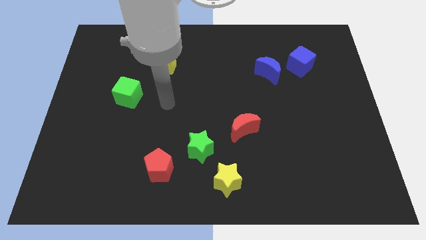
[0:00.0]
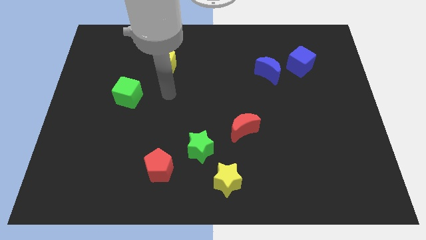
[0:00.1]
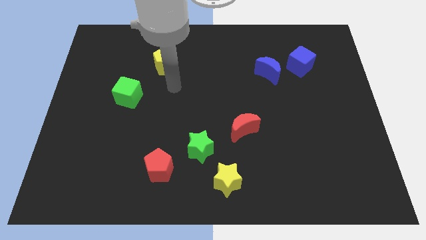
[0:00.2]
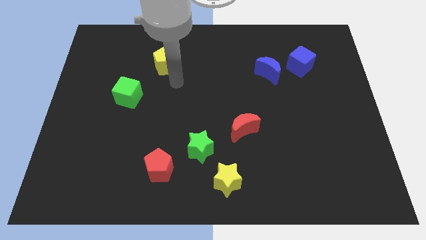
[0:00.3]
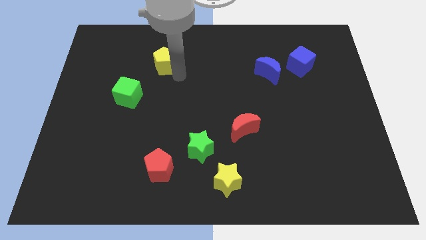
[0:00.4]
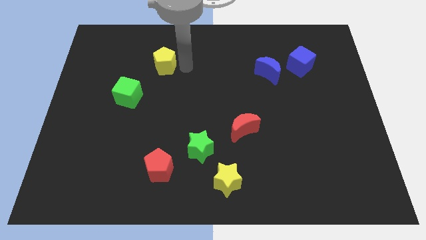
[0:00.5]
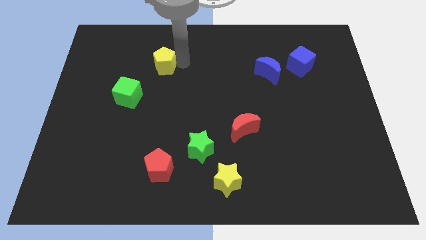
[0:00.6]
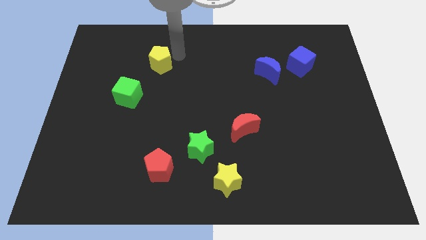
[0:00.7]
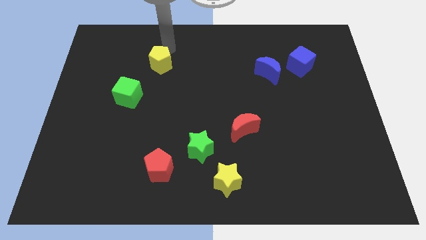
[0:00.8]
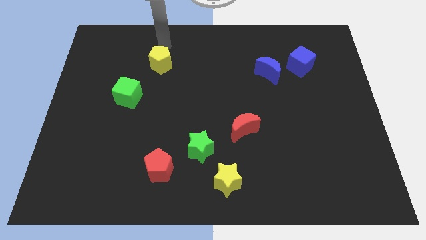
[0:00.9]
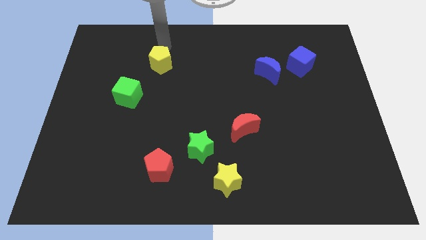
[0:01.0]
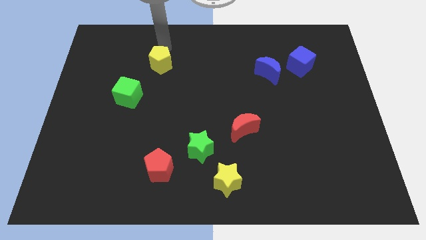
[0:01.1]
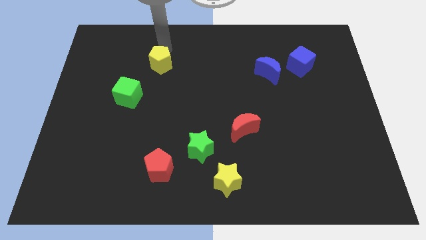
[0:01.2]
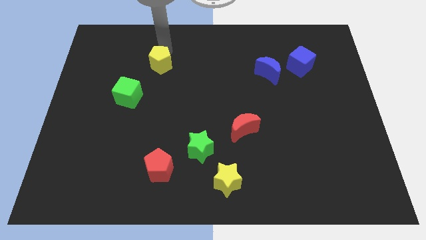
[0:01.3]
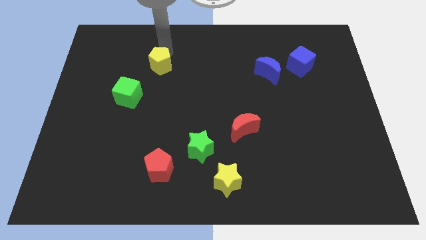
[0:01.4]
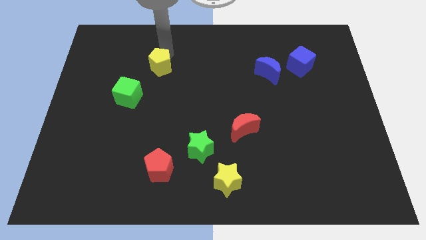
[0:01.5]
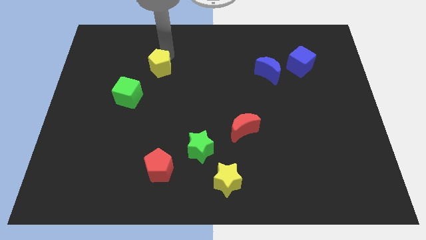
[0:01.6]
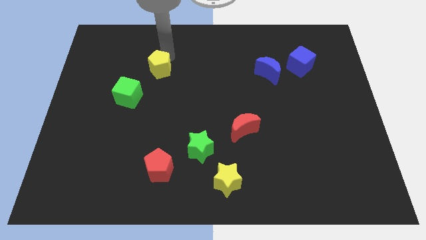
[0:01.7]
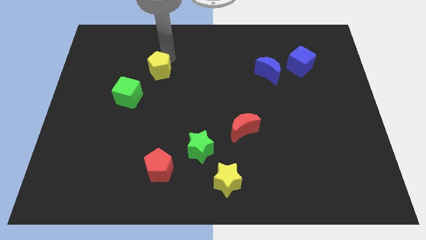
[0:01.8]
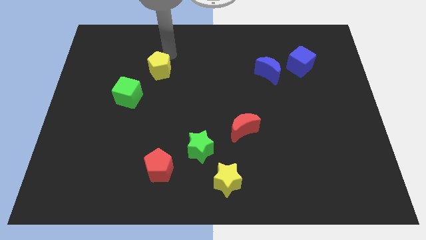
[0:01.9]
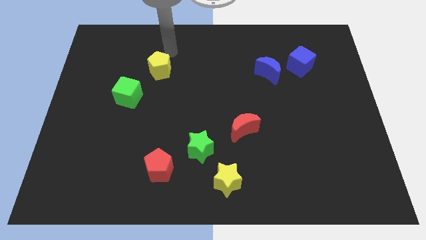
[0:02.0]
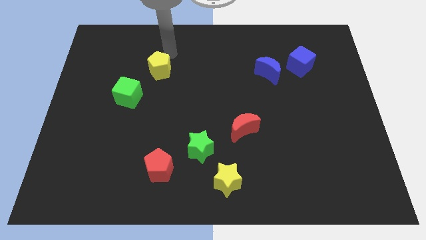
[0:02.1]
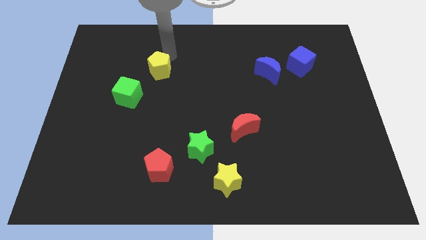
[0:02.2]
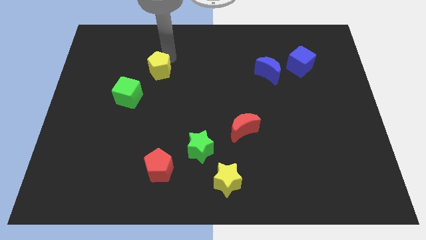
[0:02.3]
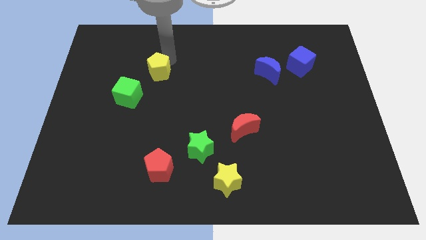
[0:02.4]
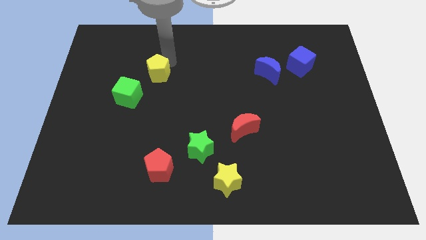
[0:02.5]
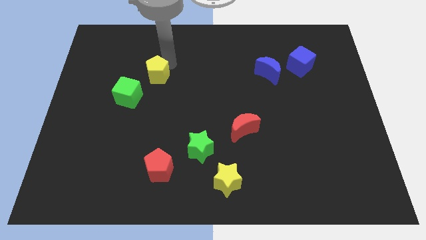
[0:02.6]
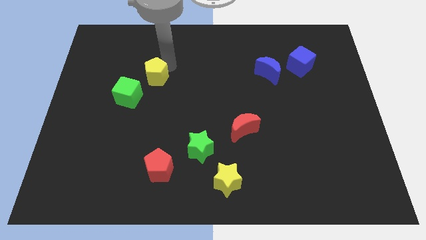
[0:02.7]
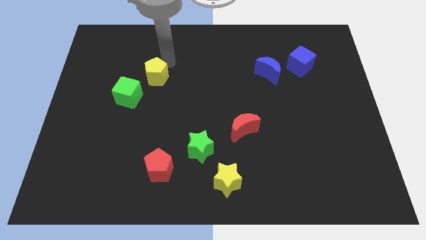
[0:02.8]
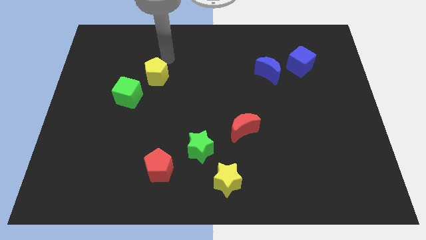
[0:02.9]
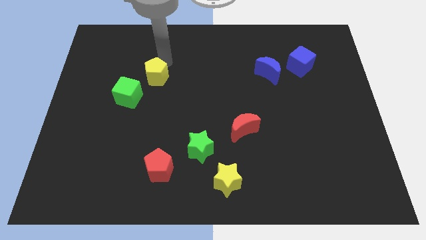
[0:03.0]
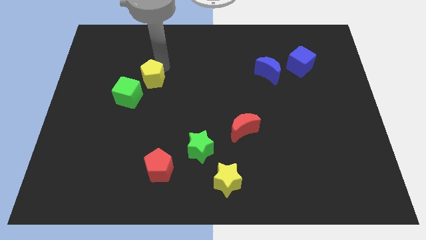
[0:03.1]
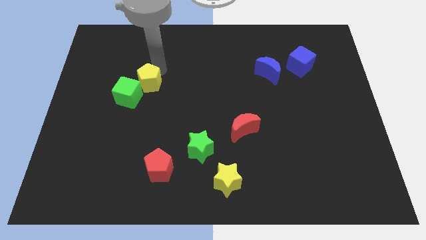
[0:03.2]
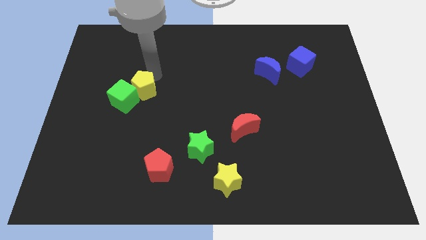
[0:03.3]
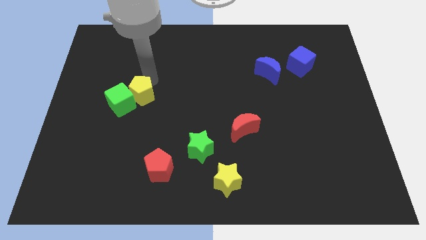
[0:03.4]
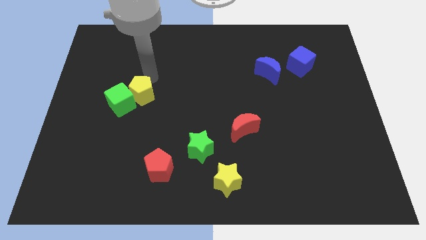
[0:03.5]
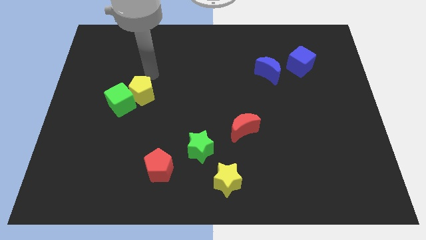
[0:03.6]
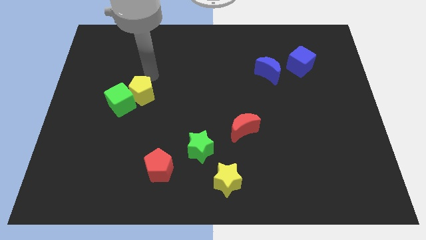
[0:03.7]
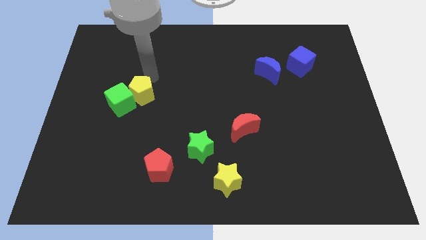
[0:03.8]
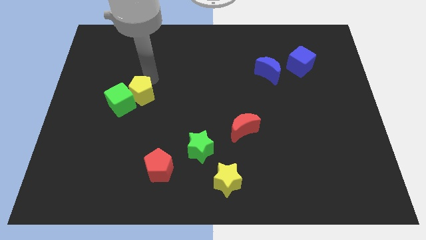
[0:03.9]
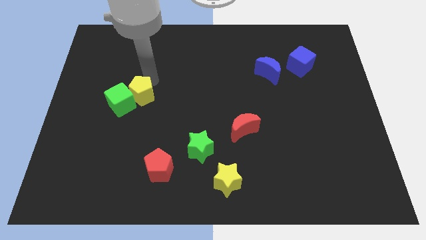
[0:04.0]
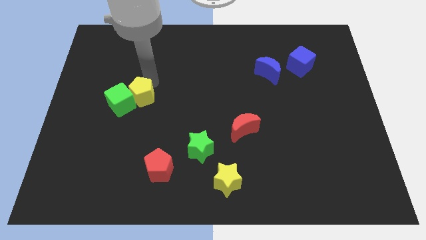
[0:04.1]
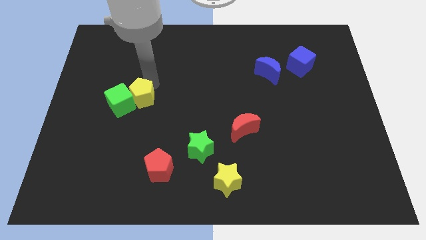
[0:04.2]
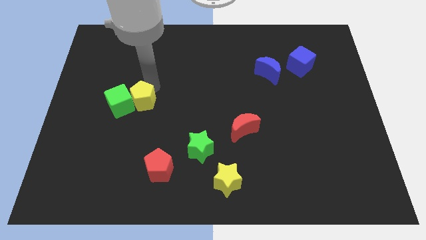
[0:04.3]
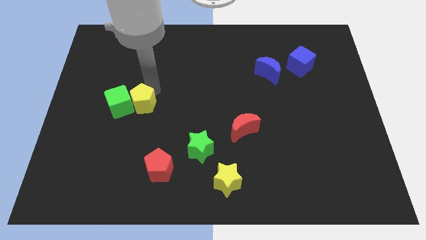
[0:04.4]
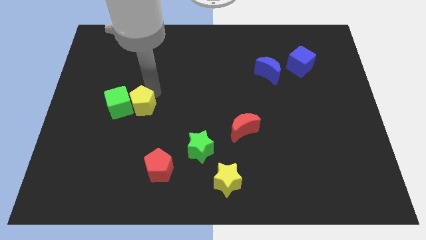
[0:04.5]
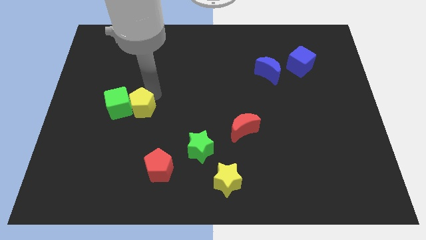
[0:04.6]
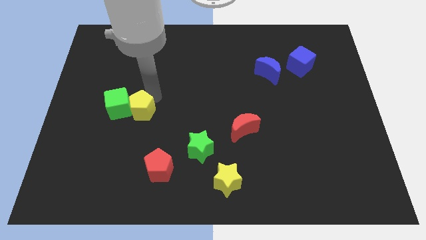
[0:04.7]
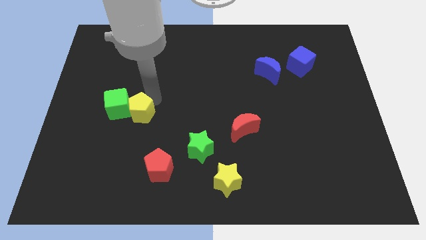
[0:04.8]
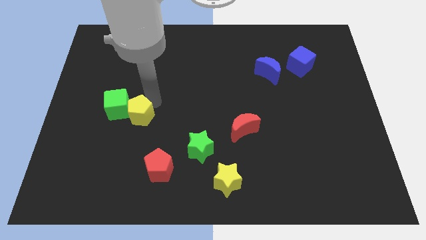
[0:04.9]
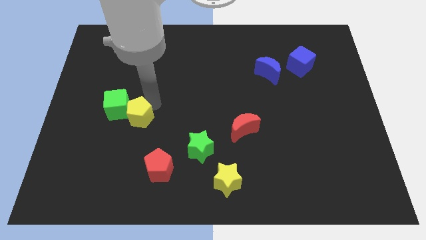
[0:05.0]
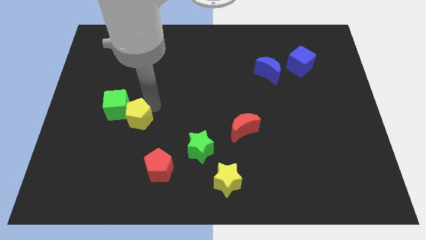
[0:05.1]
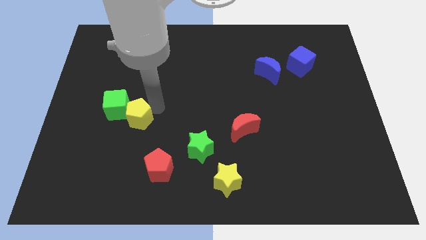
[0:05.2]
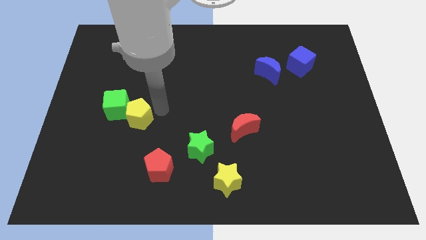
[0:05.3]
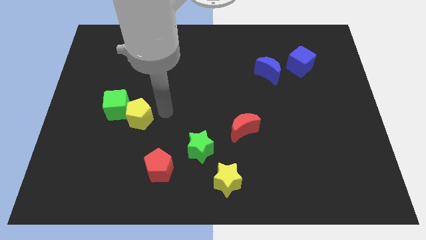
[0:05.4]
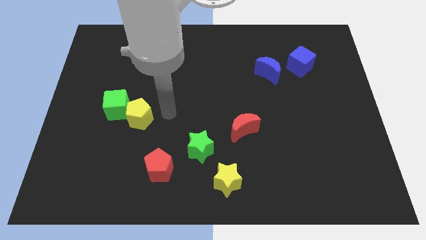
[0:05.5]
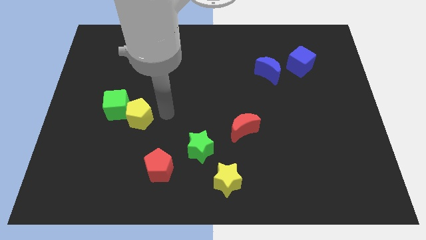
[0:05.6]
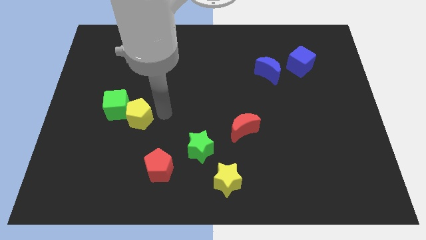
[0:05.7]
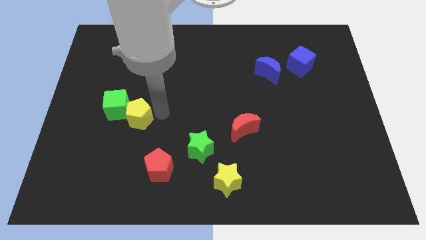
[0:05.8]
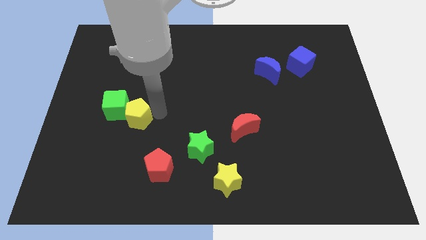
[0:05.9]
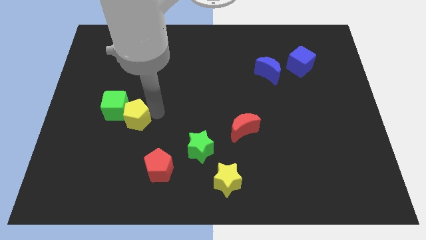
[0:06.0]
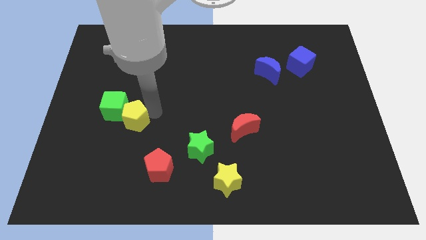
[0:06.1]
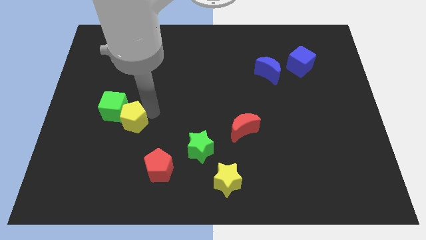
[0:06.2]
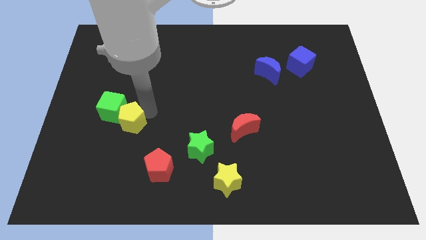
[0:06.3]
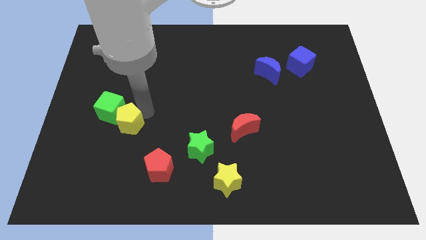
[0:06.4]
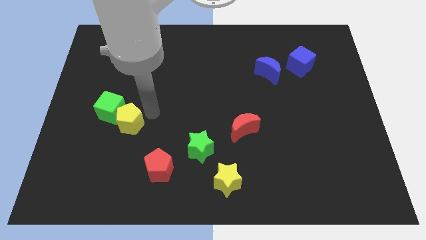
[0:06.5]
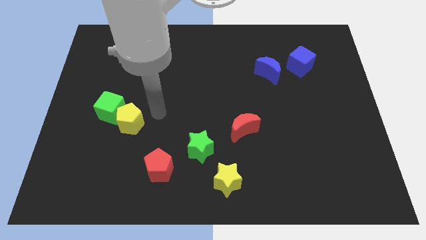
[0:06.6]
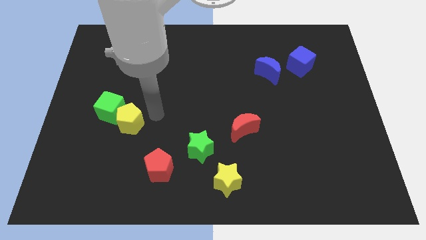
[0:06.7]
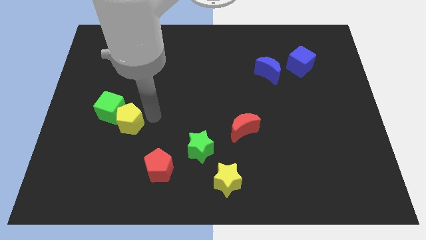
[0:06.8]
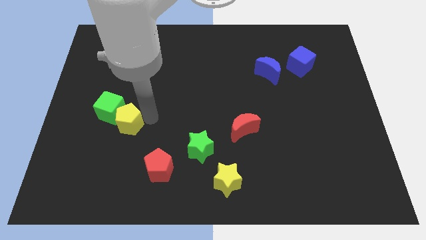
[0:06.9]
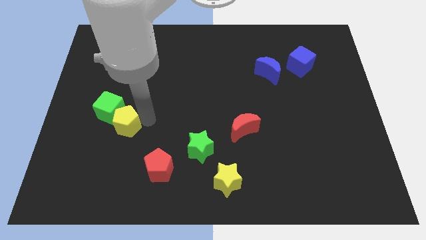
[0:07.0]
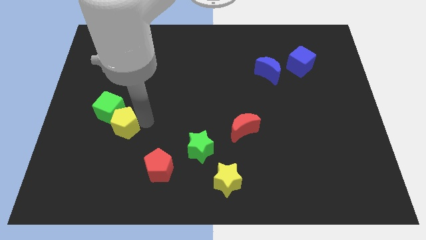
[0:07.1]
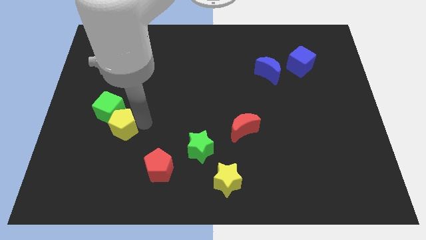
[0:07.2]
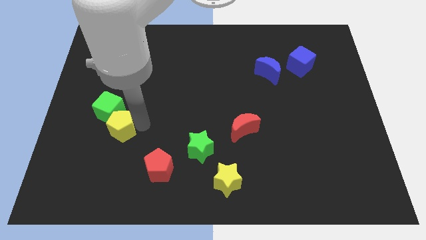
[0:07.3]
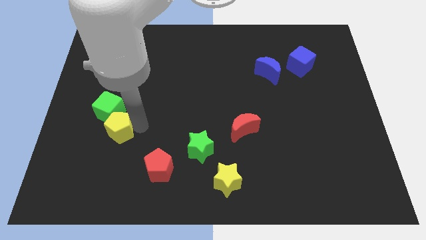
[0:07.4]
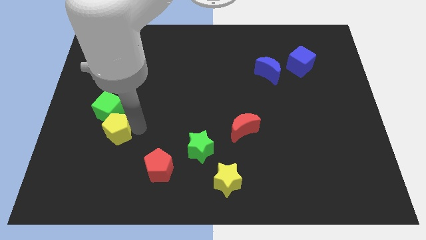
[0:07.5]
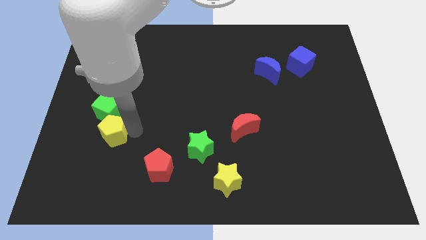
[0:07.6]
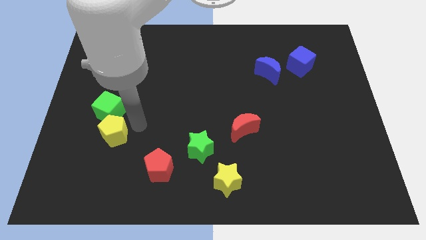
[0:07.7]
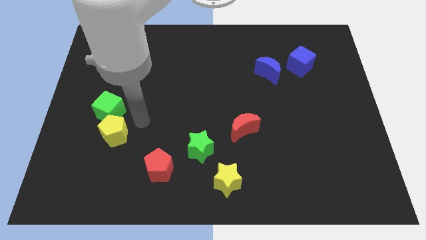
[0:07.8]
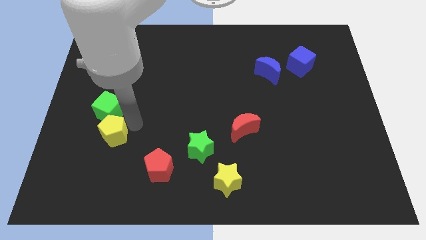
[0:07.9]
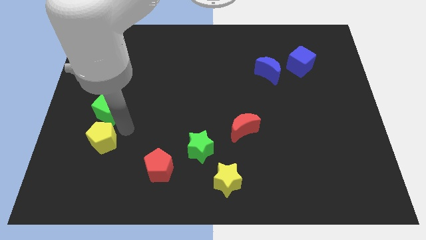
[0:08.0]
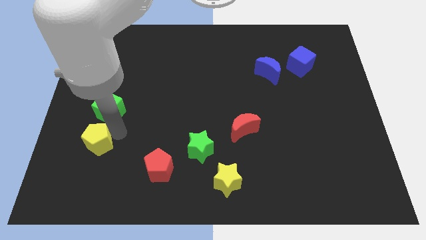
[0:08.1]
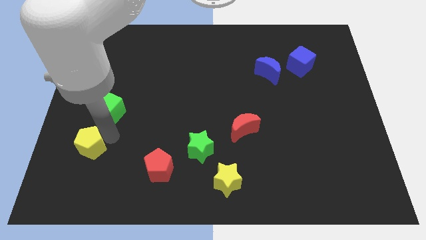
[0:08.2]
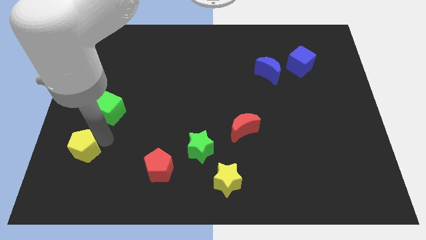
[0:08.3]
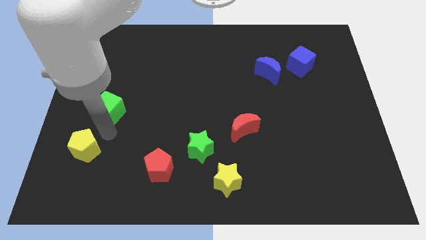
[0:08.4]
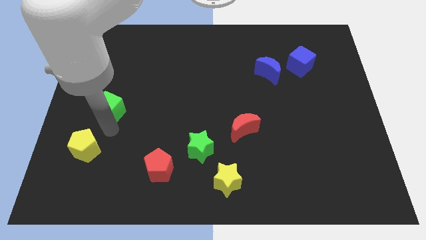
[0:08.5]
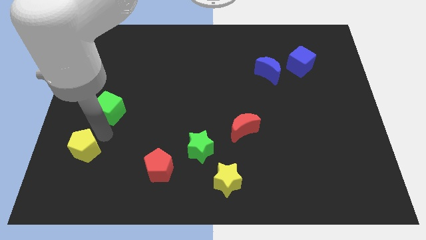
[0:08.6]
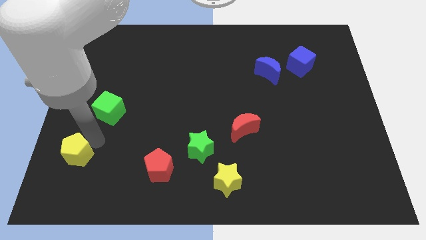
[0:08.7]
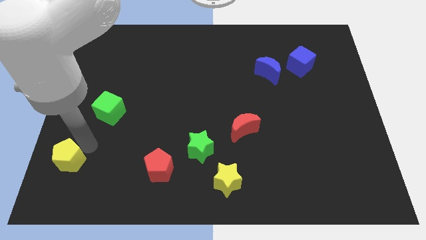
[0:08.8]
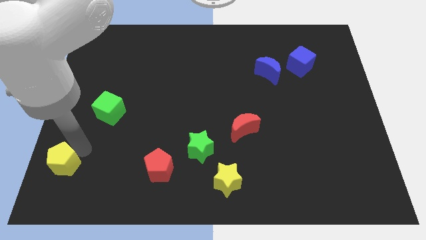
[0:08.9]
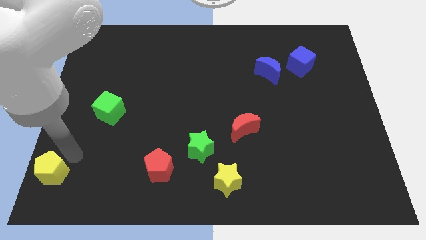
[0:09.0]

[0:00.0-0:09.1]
move the yellow pentagon to the bottom left corner
